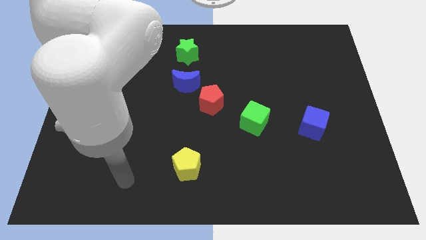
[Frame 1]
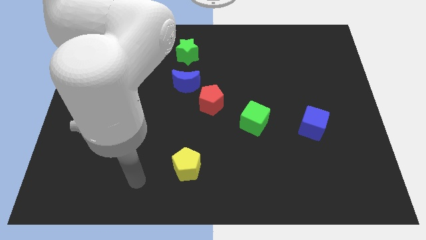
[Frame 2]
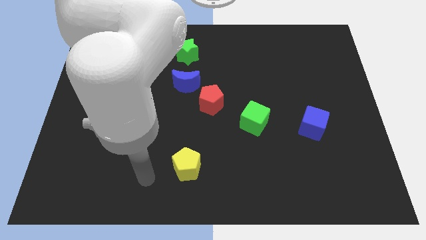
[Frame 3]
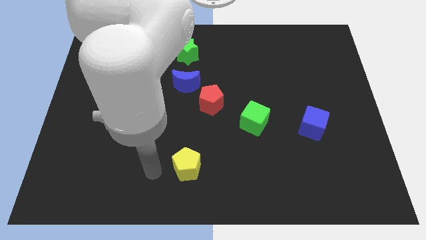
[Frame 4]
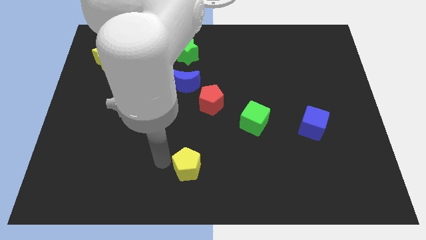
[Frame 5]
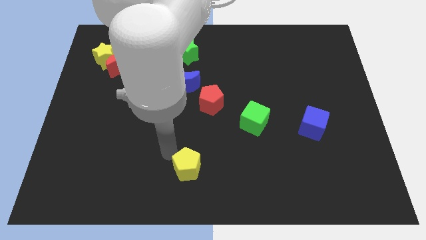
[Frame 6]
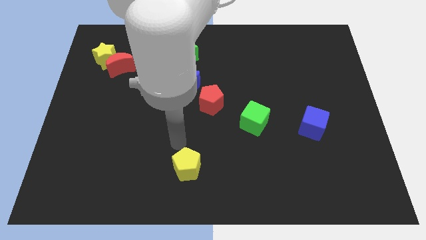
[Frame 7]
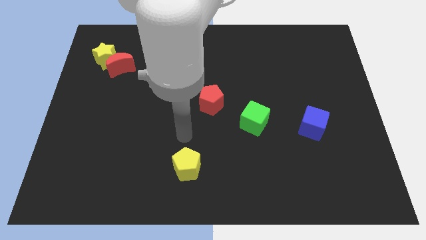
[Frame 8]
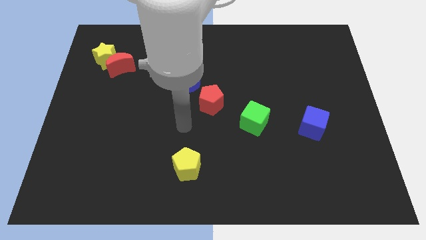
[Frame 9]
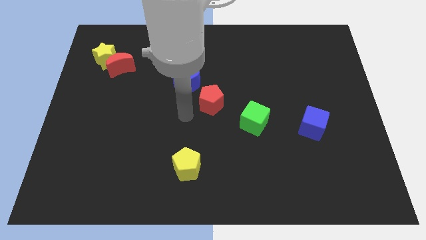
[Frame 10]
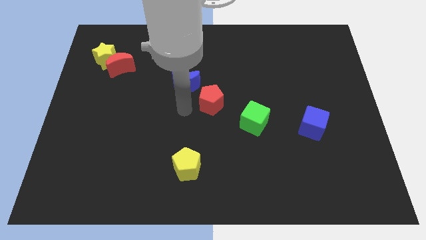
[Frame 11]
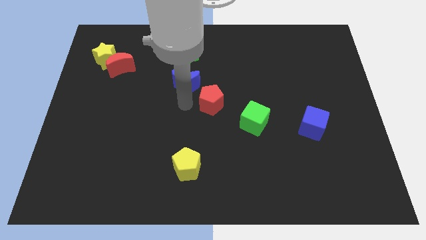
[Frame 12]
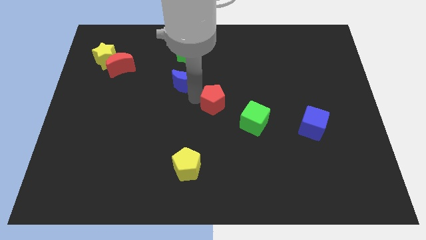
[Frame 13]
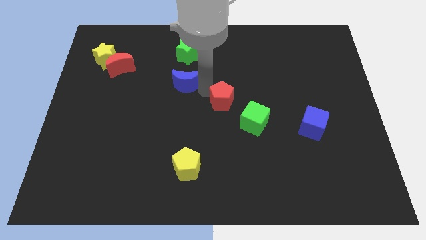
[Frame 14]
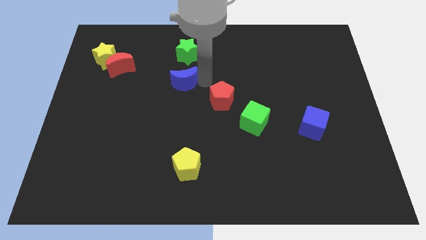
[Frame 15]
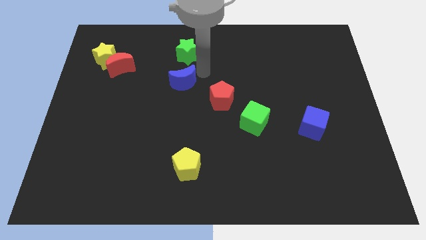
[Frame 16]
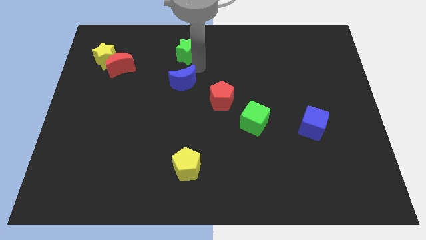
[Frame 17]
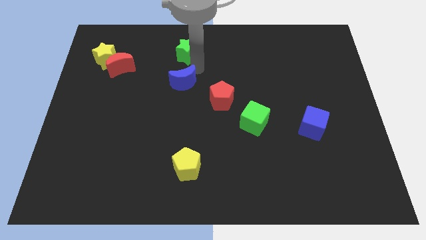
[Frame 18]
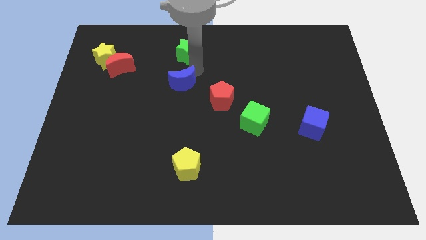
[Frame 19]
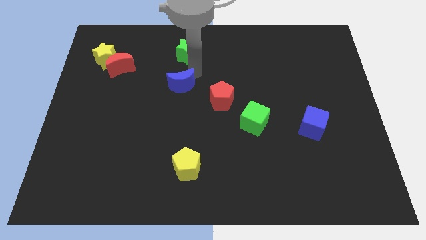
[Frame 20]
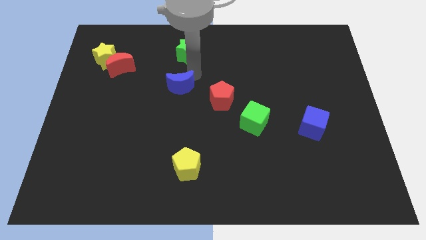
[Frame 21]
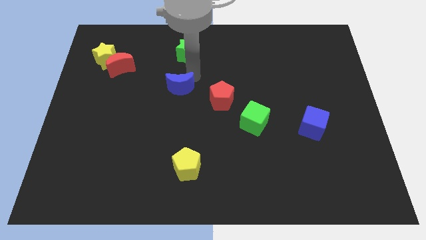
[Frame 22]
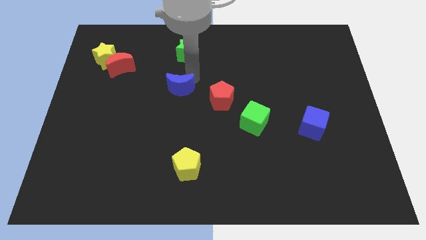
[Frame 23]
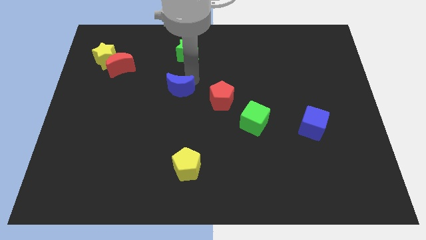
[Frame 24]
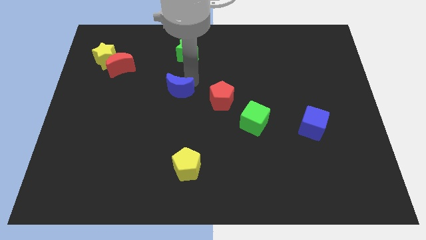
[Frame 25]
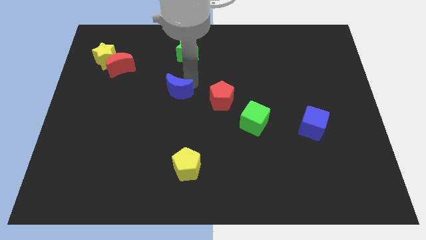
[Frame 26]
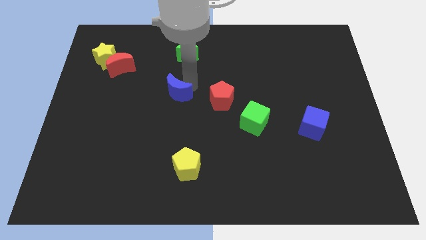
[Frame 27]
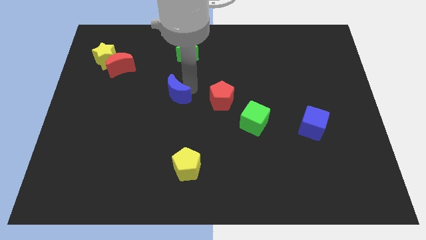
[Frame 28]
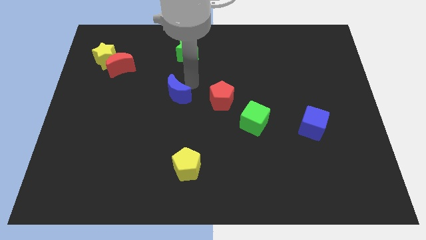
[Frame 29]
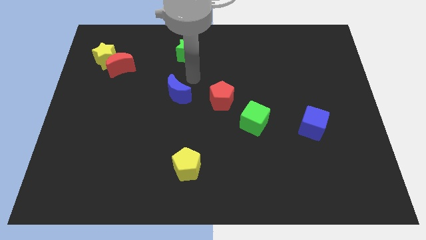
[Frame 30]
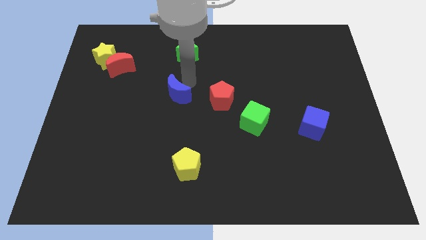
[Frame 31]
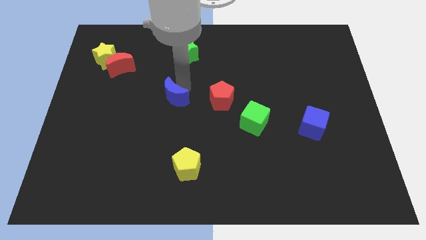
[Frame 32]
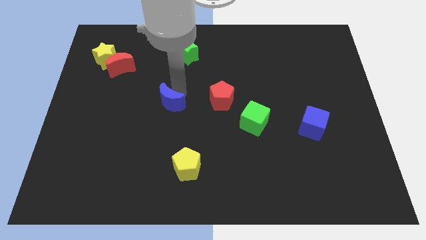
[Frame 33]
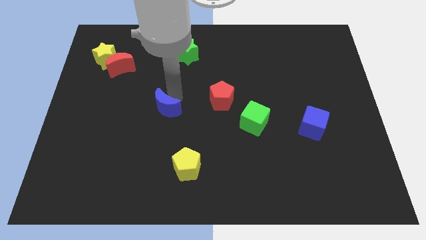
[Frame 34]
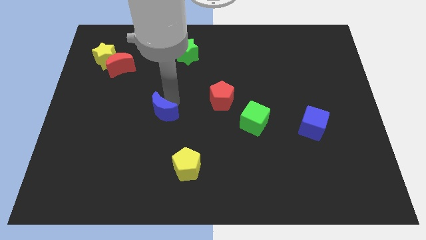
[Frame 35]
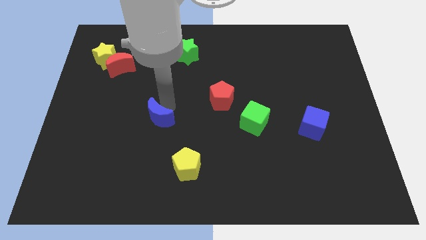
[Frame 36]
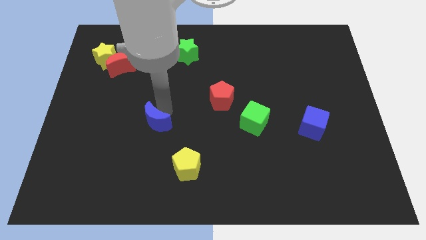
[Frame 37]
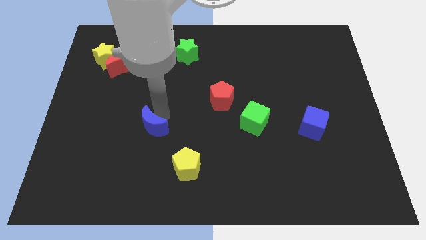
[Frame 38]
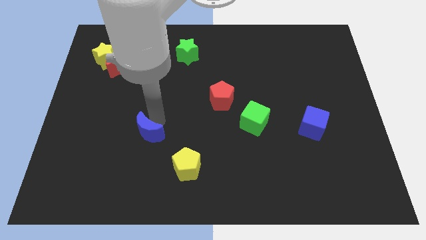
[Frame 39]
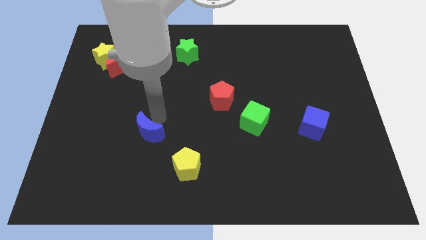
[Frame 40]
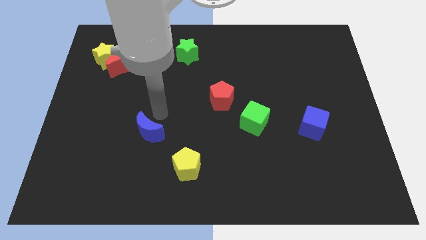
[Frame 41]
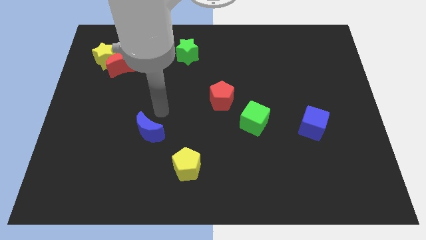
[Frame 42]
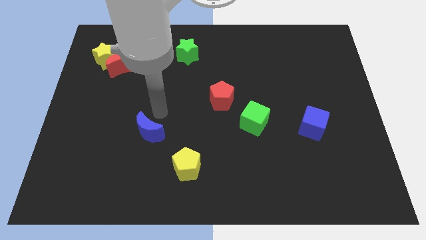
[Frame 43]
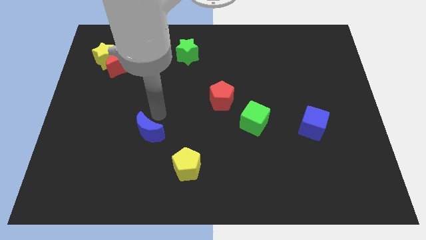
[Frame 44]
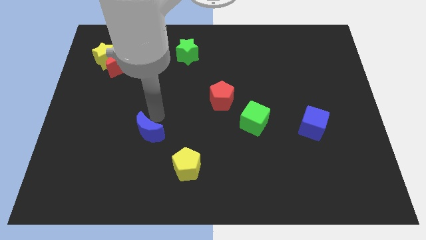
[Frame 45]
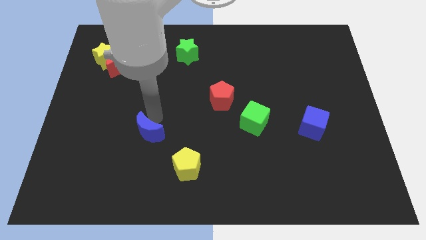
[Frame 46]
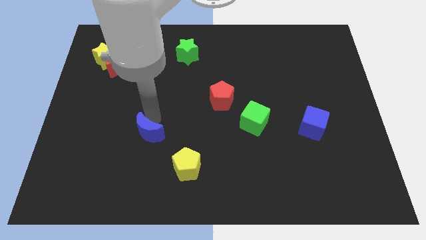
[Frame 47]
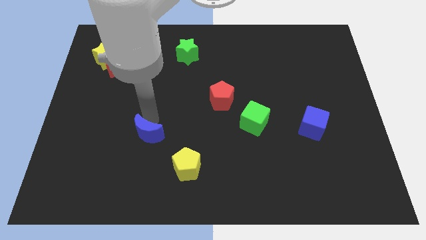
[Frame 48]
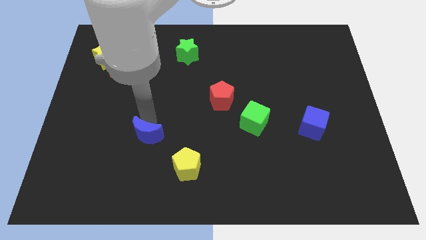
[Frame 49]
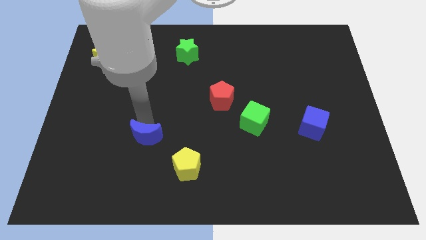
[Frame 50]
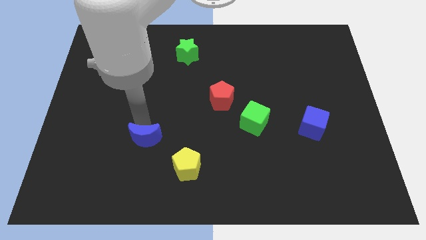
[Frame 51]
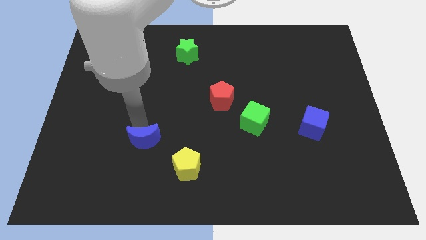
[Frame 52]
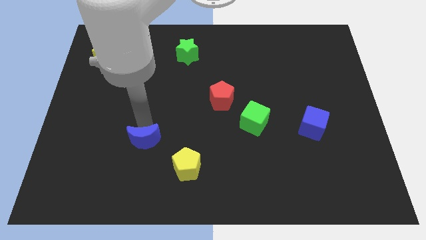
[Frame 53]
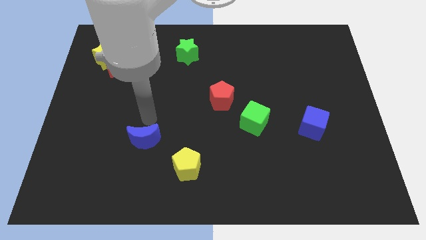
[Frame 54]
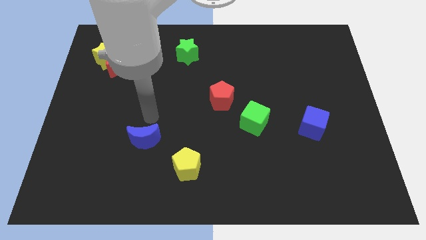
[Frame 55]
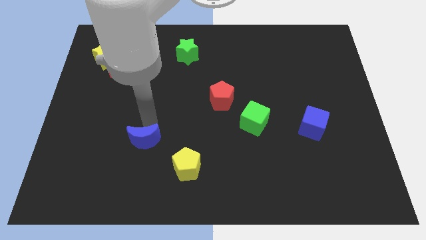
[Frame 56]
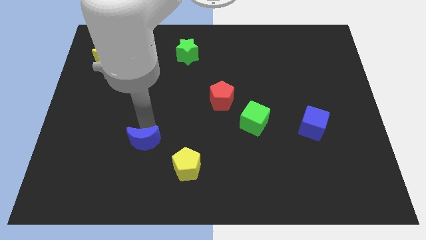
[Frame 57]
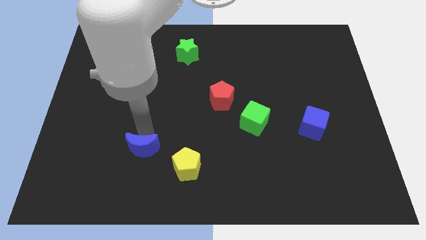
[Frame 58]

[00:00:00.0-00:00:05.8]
move the blue moon to the left side of the yellow pentagon
